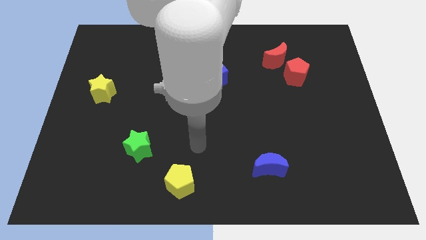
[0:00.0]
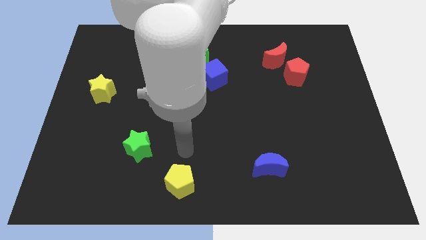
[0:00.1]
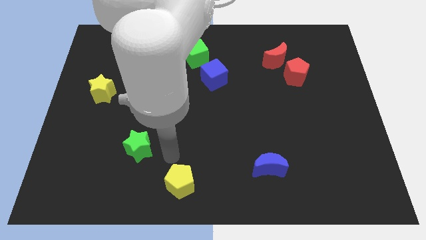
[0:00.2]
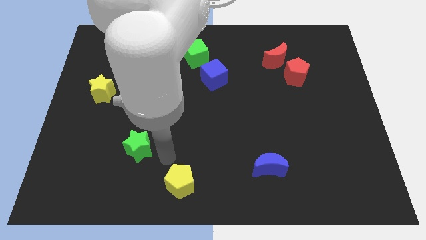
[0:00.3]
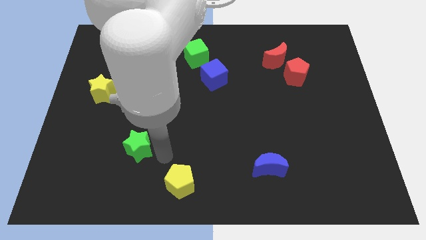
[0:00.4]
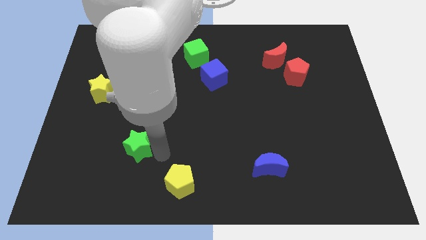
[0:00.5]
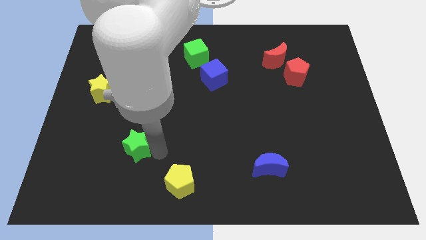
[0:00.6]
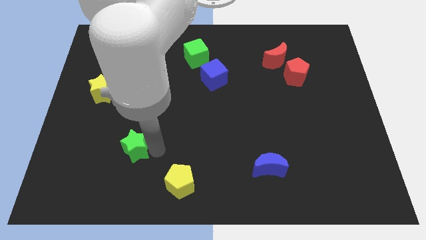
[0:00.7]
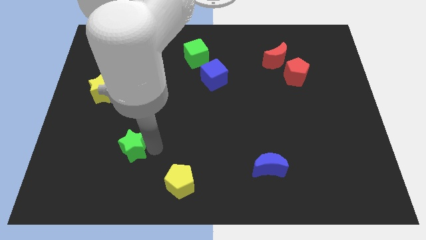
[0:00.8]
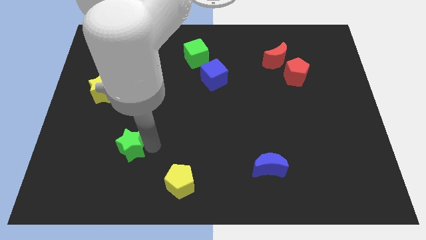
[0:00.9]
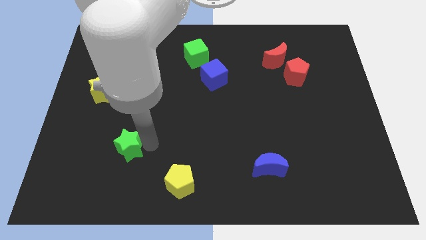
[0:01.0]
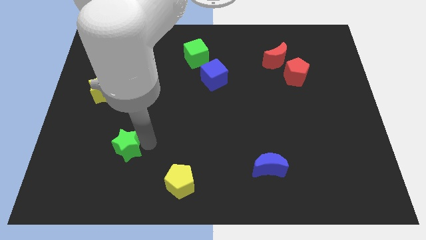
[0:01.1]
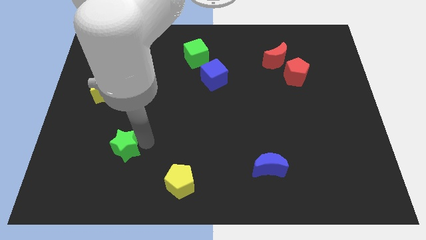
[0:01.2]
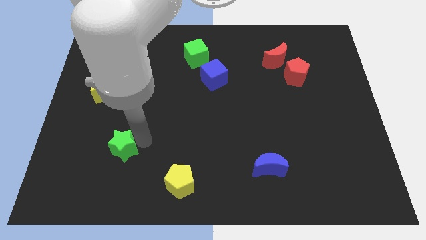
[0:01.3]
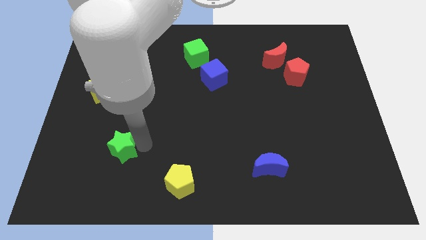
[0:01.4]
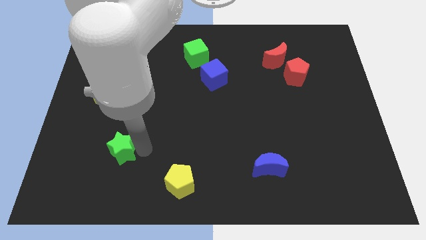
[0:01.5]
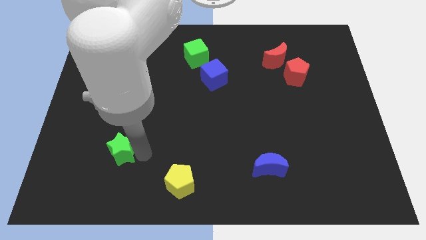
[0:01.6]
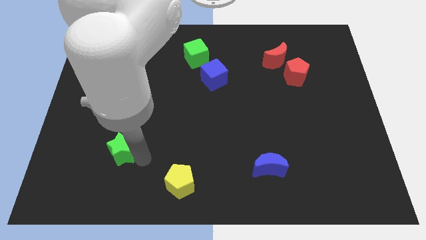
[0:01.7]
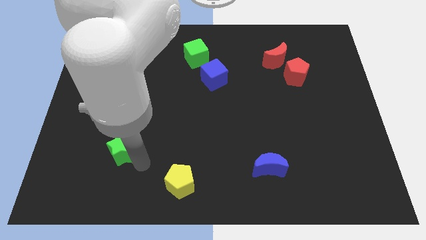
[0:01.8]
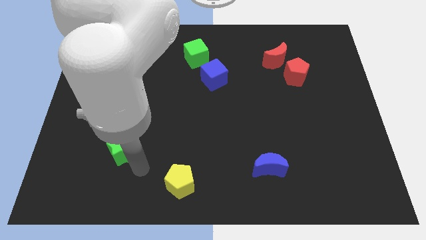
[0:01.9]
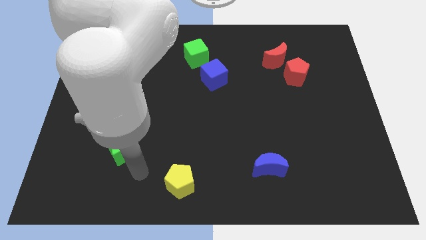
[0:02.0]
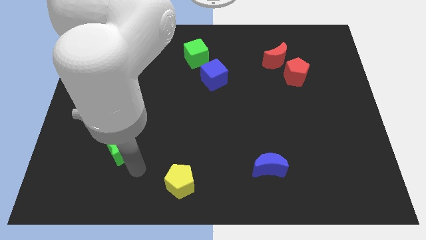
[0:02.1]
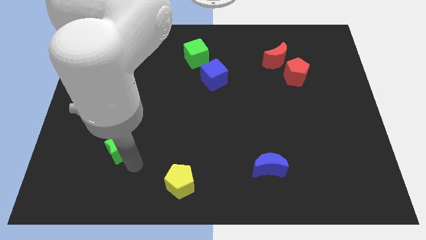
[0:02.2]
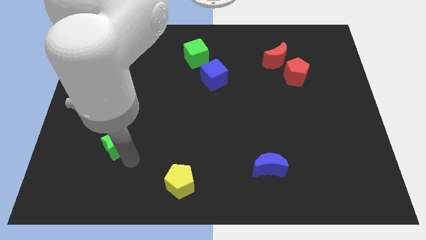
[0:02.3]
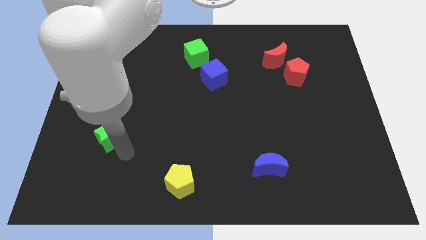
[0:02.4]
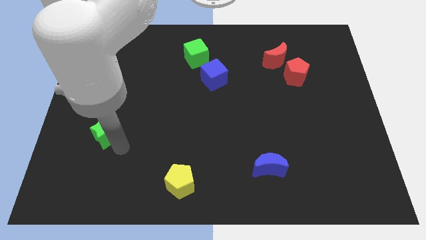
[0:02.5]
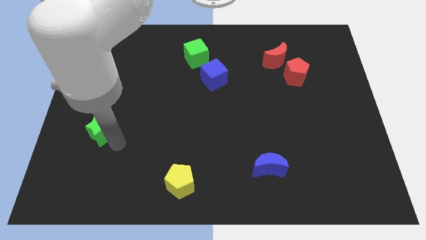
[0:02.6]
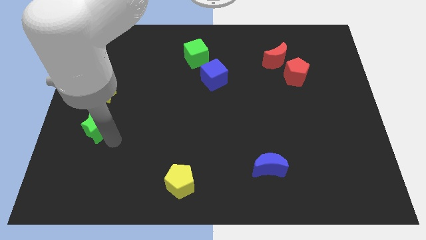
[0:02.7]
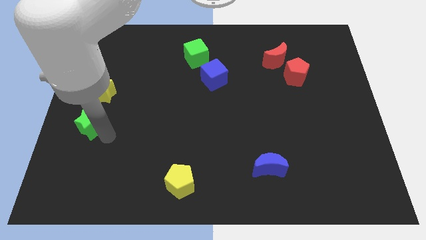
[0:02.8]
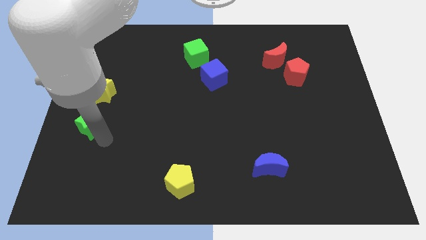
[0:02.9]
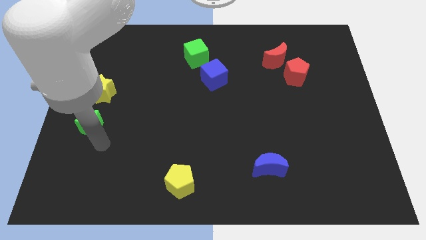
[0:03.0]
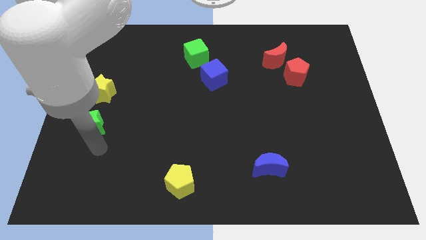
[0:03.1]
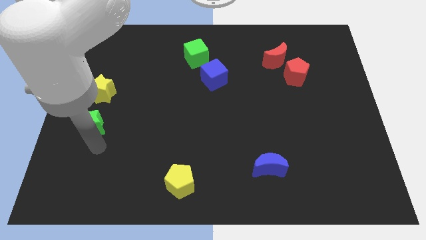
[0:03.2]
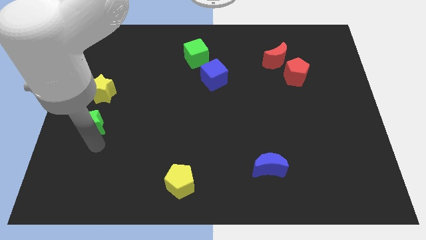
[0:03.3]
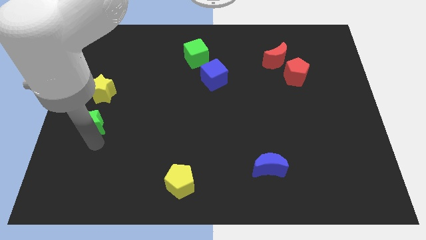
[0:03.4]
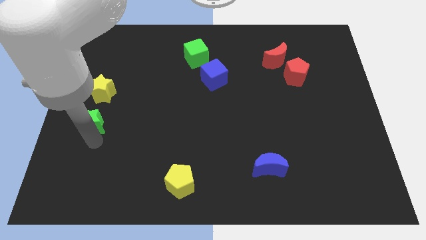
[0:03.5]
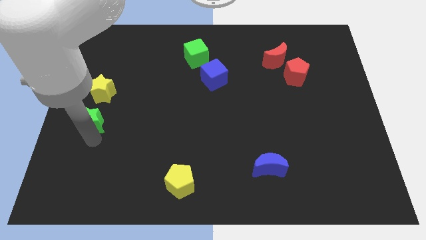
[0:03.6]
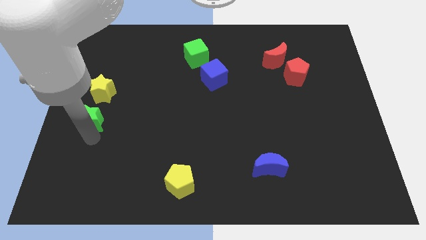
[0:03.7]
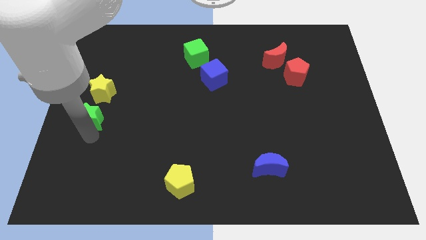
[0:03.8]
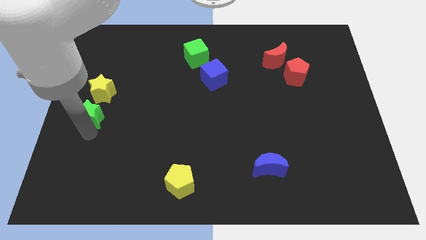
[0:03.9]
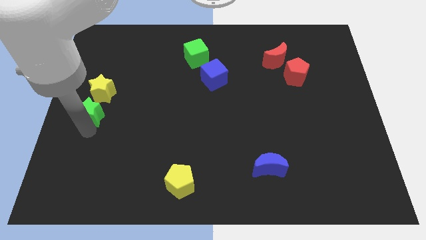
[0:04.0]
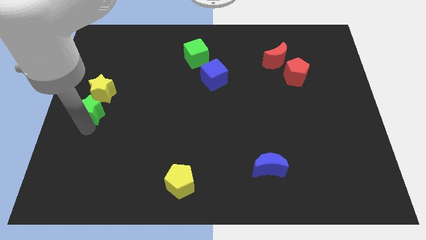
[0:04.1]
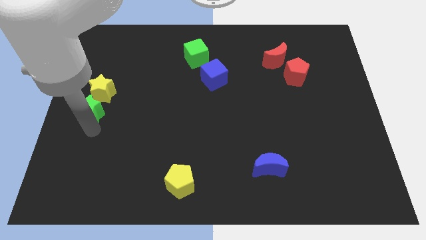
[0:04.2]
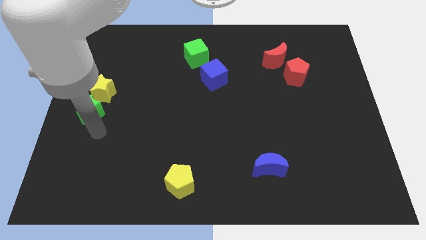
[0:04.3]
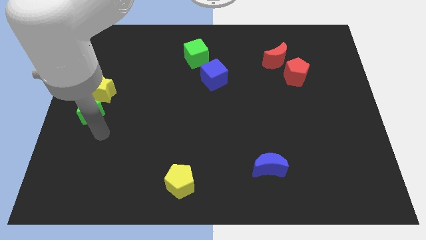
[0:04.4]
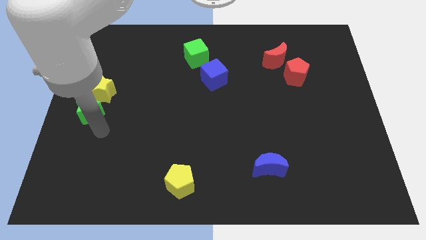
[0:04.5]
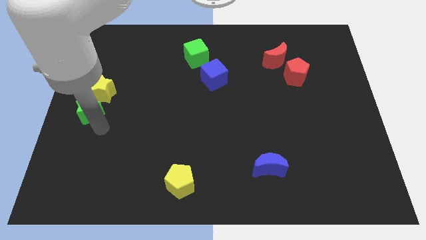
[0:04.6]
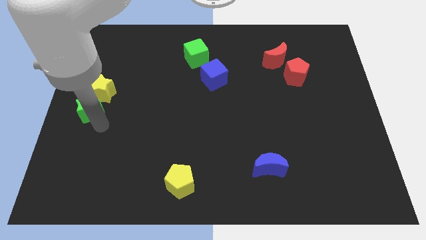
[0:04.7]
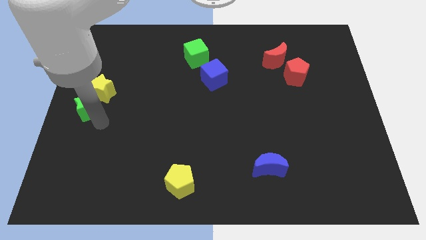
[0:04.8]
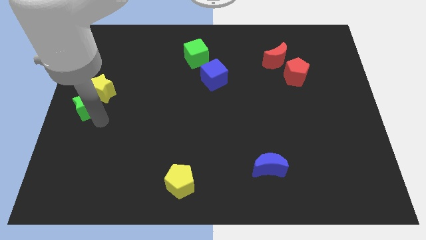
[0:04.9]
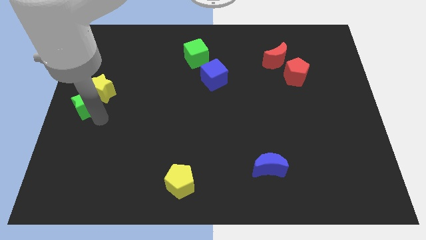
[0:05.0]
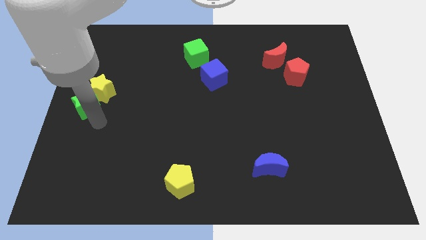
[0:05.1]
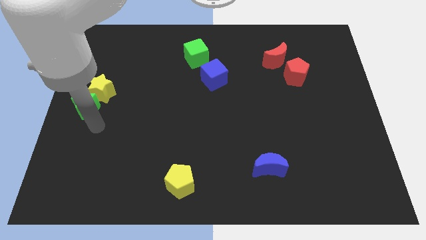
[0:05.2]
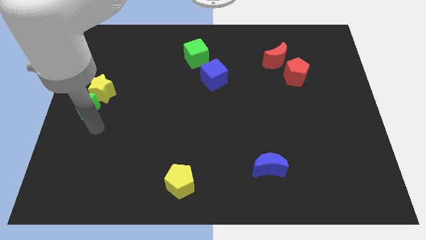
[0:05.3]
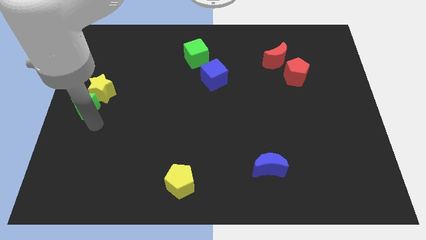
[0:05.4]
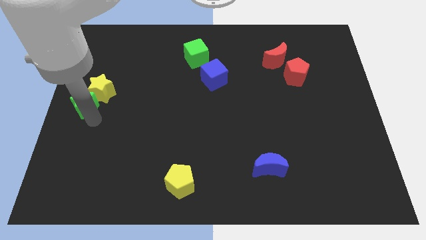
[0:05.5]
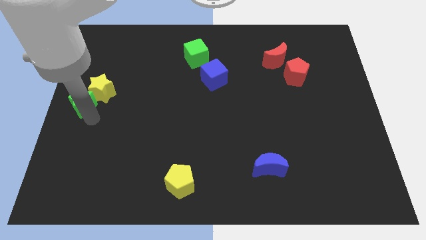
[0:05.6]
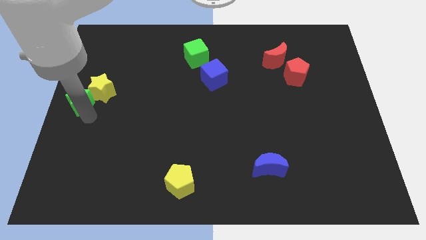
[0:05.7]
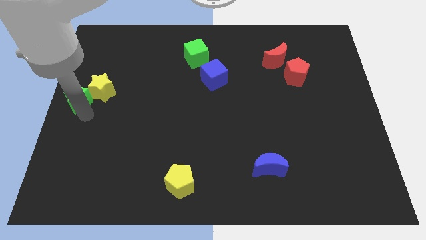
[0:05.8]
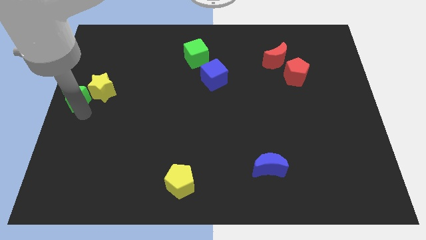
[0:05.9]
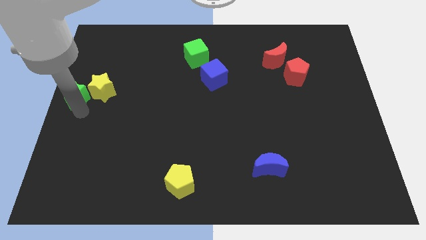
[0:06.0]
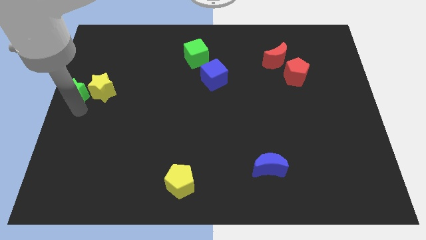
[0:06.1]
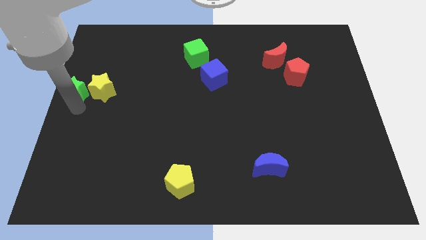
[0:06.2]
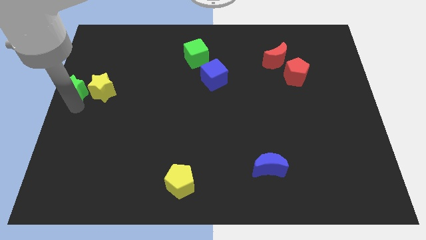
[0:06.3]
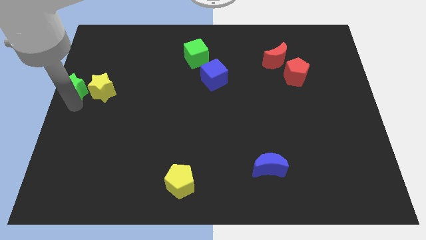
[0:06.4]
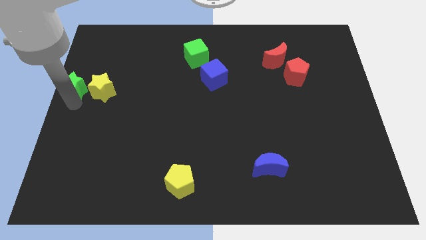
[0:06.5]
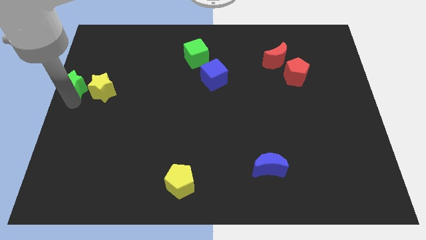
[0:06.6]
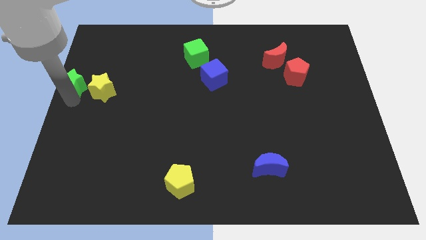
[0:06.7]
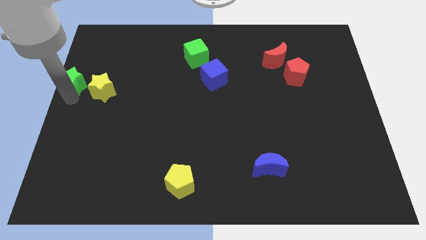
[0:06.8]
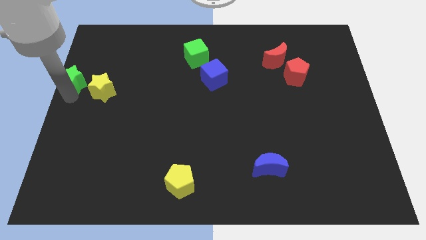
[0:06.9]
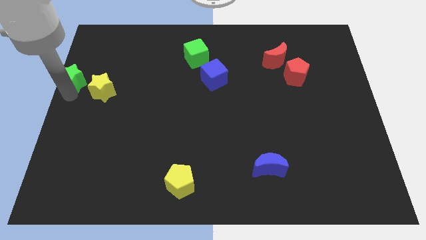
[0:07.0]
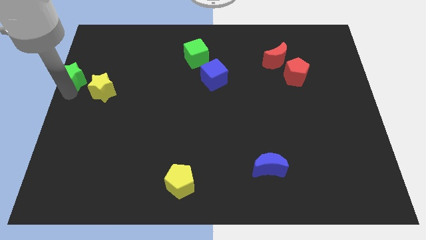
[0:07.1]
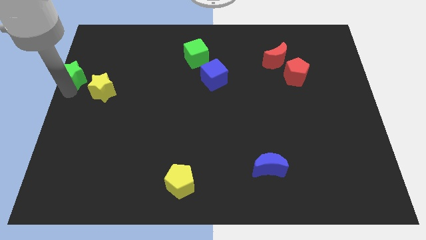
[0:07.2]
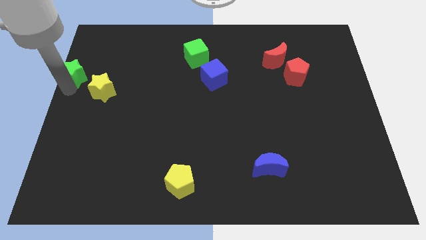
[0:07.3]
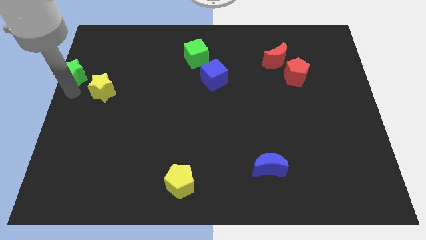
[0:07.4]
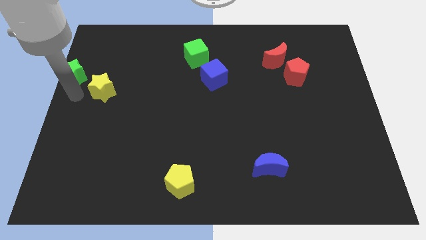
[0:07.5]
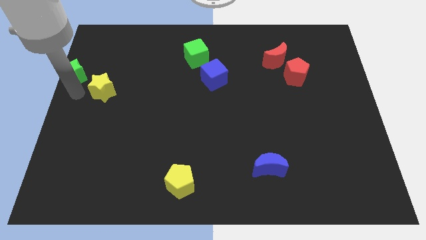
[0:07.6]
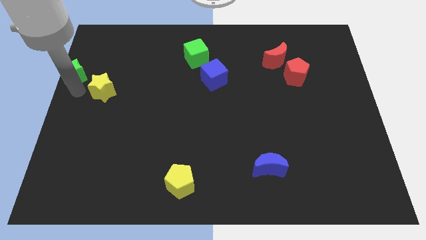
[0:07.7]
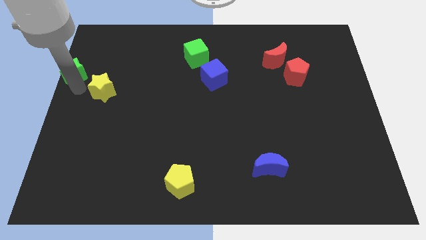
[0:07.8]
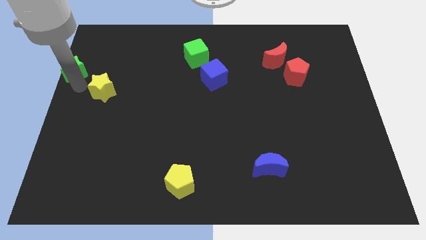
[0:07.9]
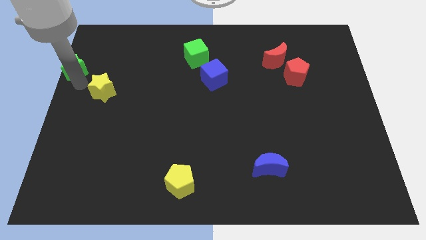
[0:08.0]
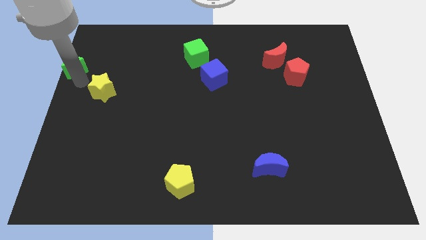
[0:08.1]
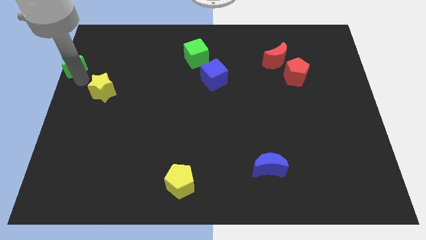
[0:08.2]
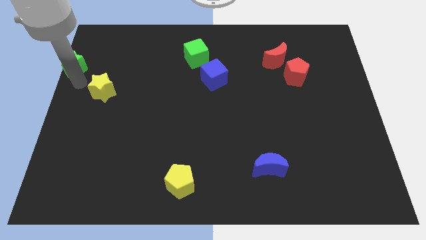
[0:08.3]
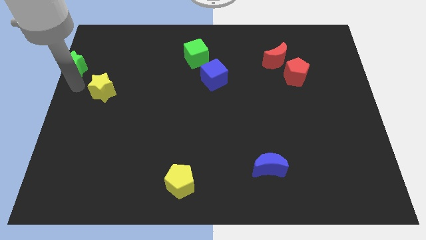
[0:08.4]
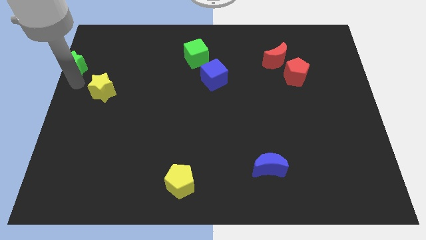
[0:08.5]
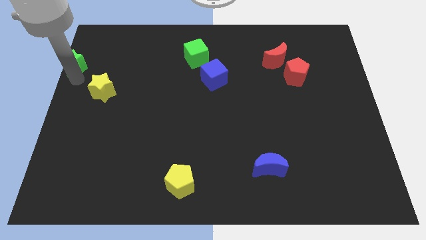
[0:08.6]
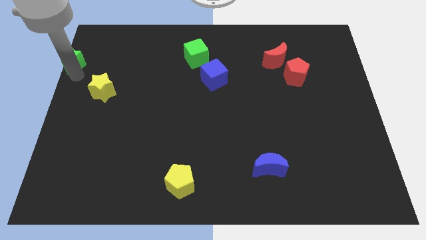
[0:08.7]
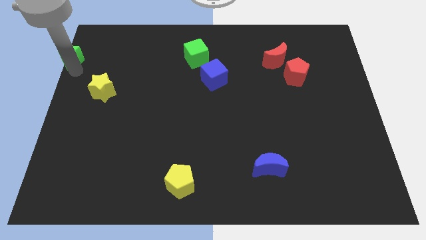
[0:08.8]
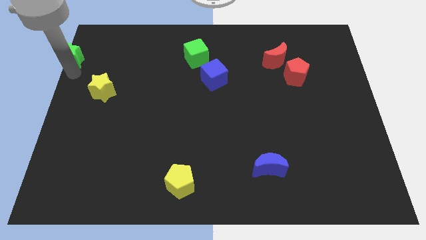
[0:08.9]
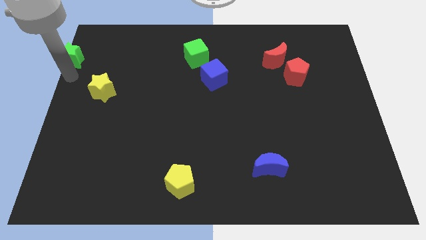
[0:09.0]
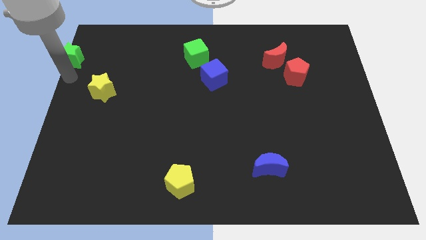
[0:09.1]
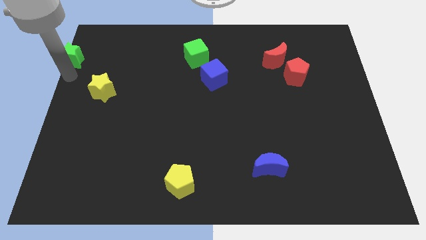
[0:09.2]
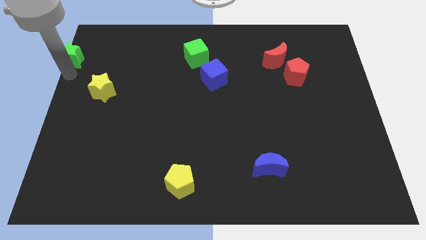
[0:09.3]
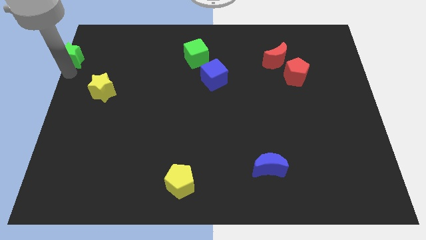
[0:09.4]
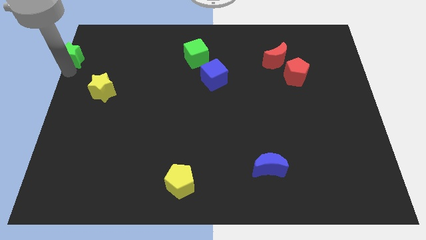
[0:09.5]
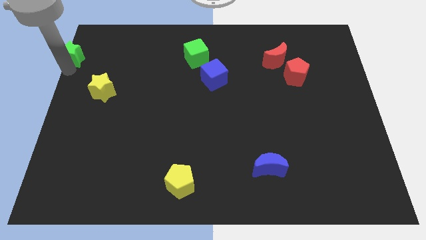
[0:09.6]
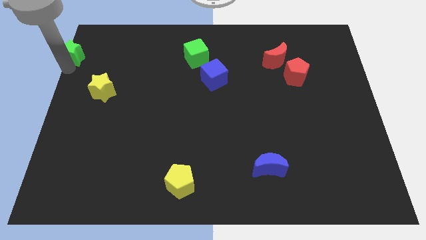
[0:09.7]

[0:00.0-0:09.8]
move the green star to the top left corner
